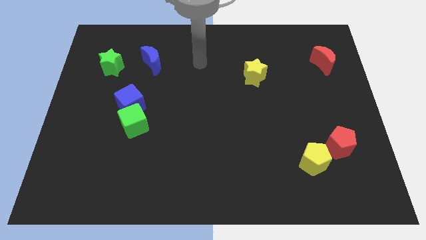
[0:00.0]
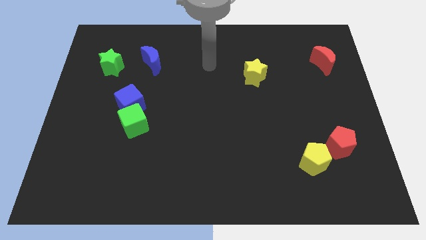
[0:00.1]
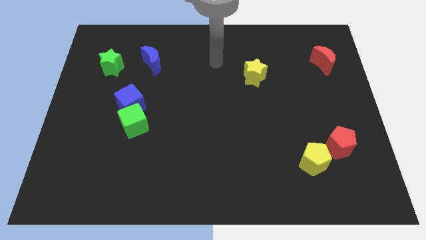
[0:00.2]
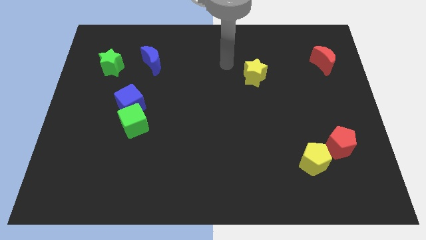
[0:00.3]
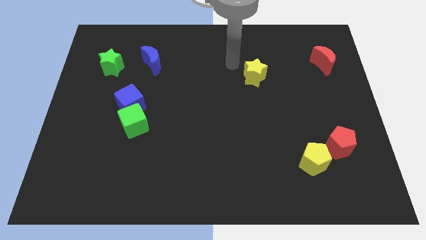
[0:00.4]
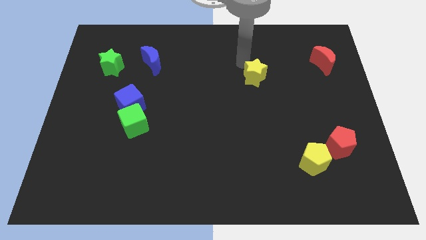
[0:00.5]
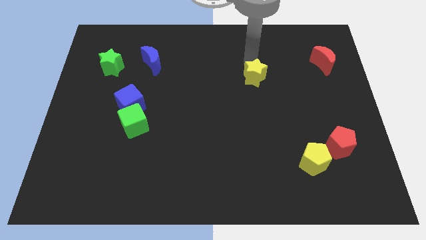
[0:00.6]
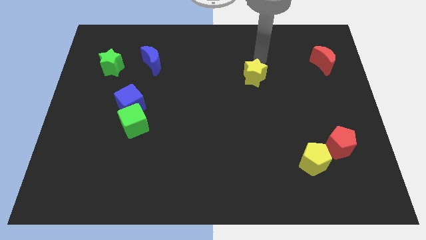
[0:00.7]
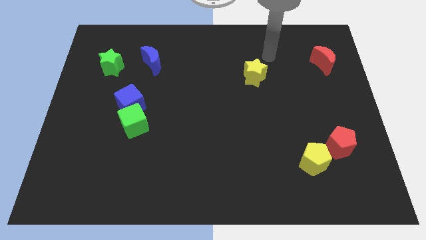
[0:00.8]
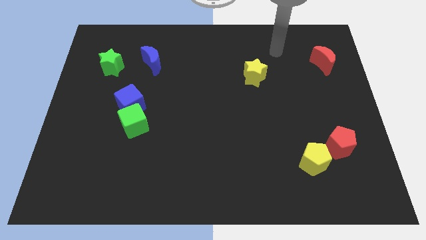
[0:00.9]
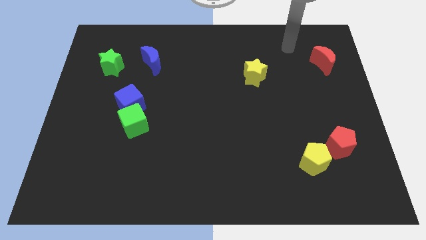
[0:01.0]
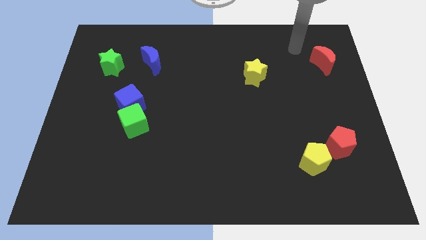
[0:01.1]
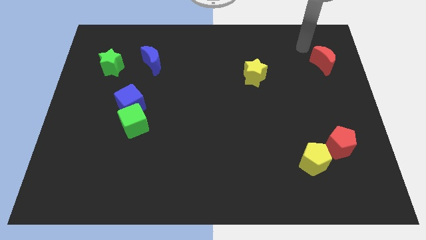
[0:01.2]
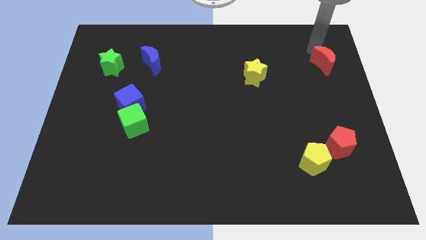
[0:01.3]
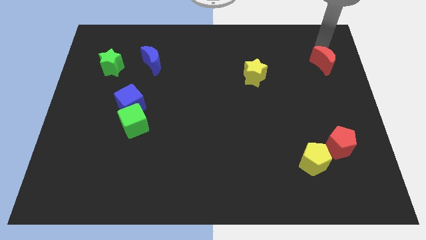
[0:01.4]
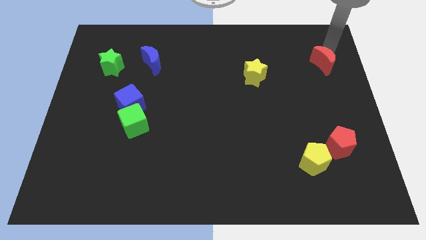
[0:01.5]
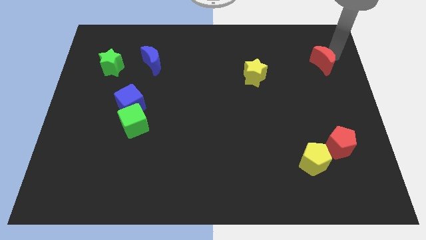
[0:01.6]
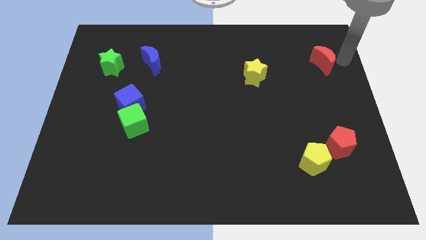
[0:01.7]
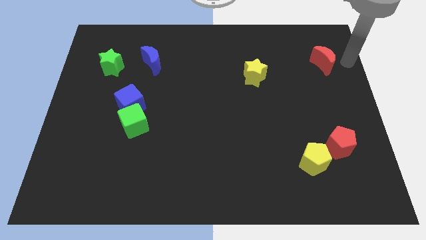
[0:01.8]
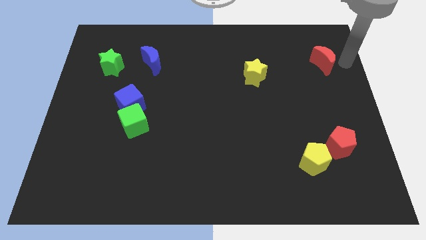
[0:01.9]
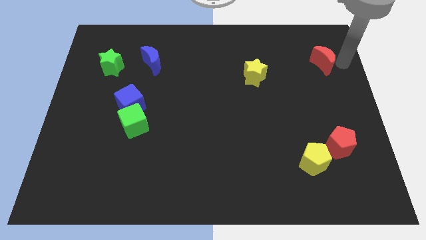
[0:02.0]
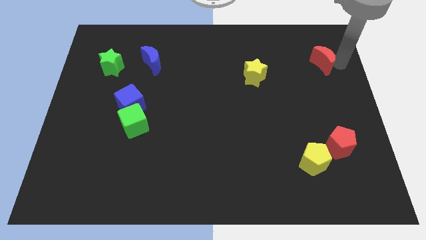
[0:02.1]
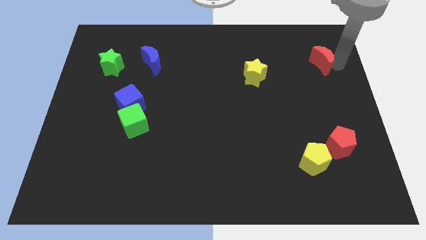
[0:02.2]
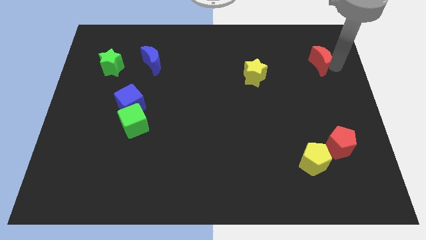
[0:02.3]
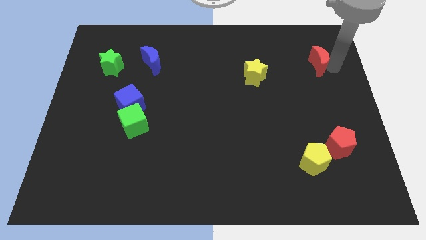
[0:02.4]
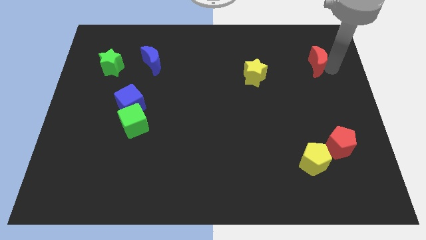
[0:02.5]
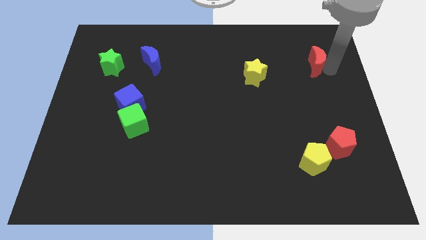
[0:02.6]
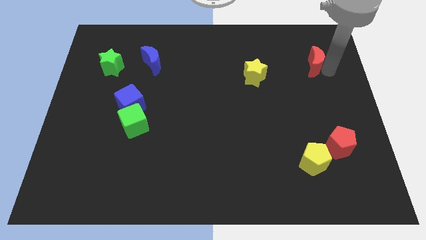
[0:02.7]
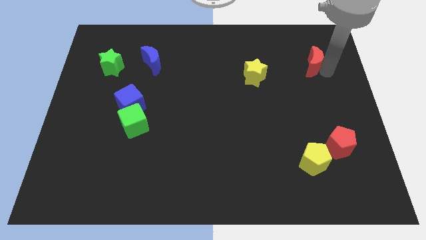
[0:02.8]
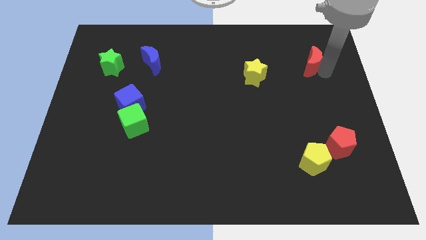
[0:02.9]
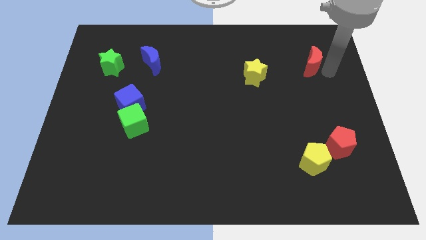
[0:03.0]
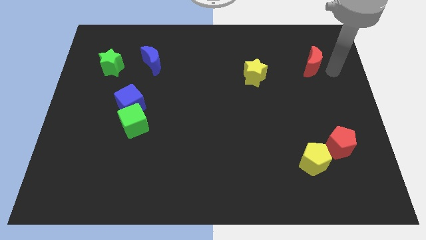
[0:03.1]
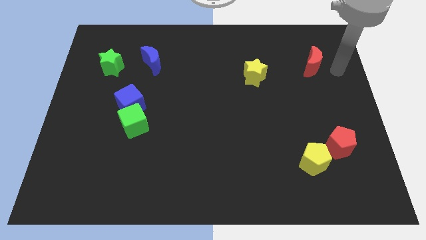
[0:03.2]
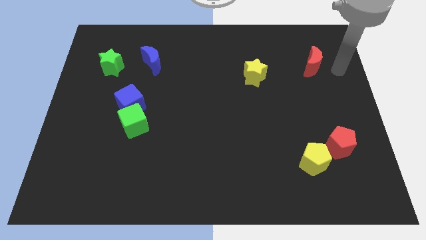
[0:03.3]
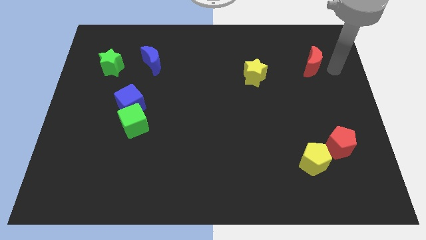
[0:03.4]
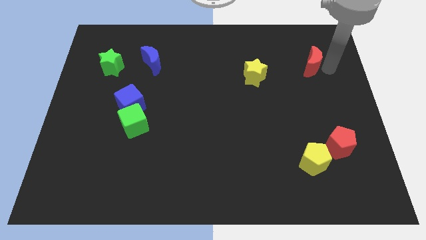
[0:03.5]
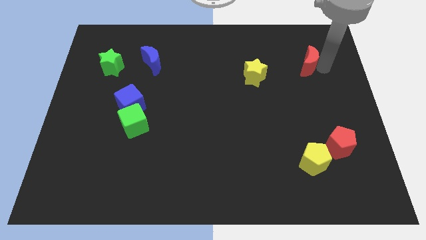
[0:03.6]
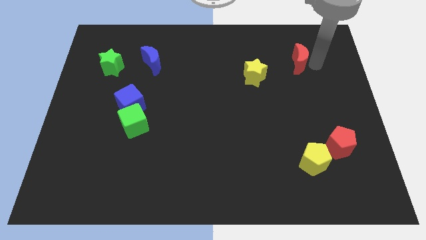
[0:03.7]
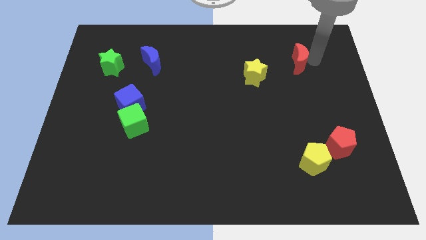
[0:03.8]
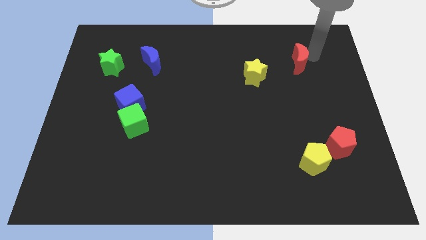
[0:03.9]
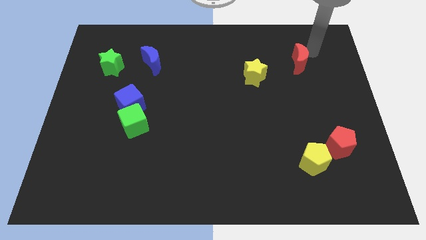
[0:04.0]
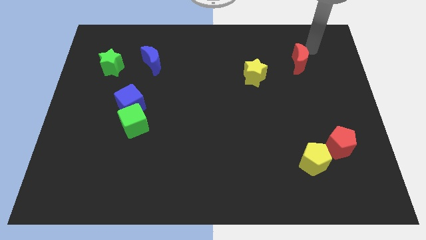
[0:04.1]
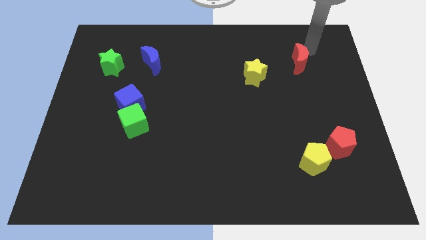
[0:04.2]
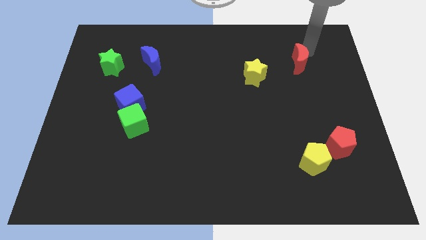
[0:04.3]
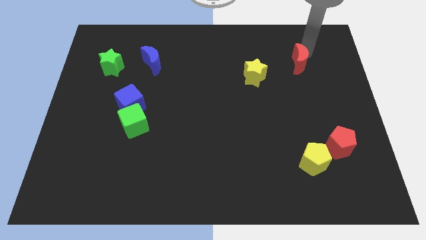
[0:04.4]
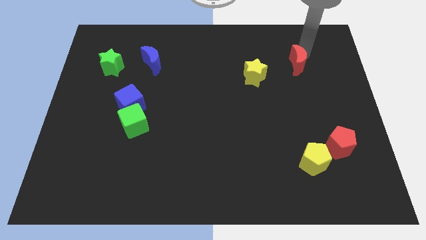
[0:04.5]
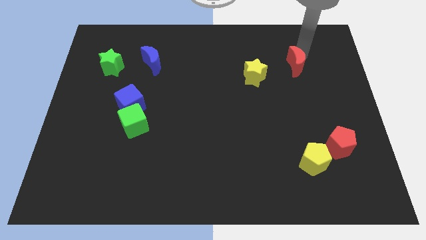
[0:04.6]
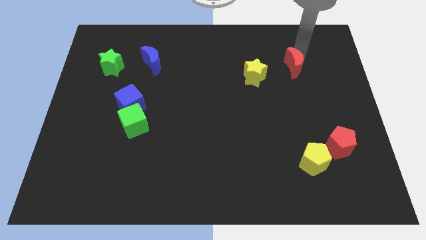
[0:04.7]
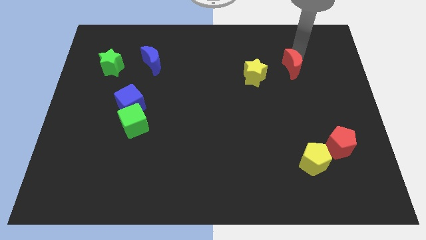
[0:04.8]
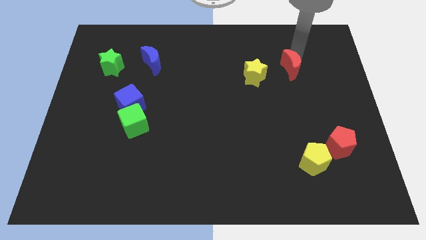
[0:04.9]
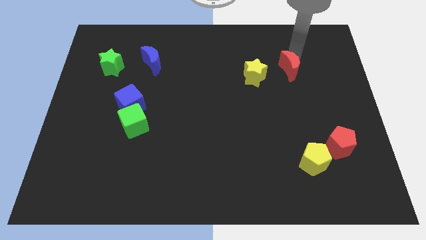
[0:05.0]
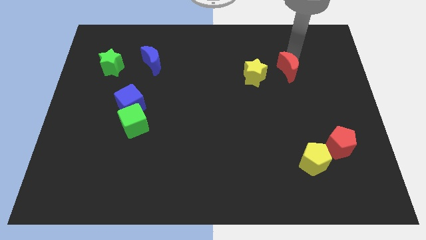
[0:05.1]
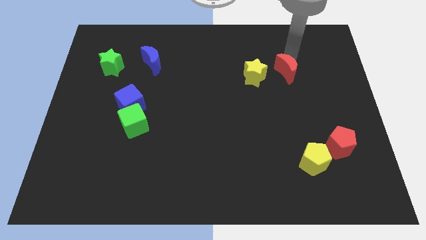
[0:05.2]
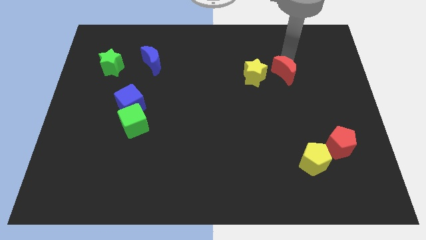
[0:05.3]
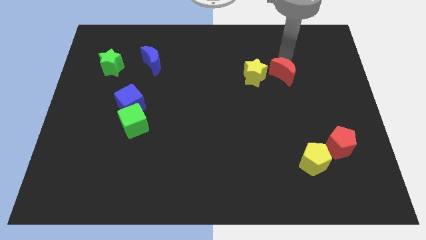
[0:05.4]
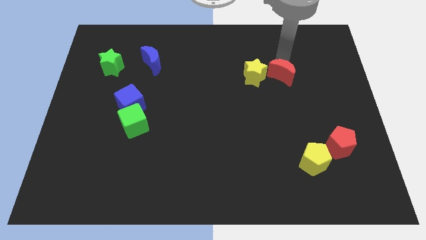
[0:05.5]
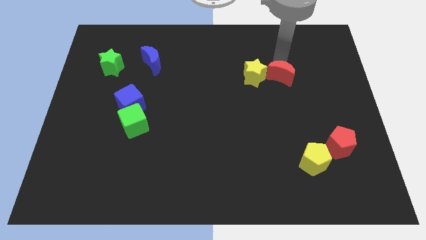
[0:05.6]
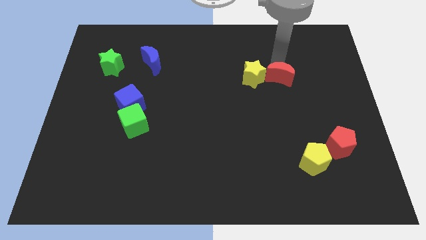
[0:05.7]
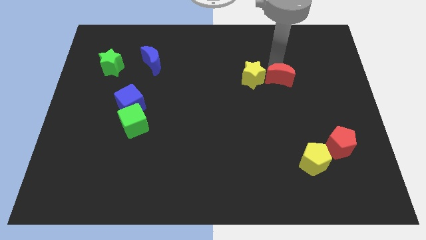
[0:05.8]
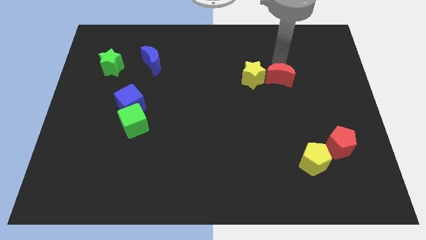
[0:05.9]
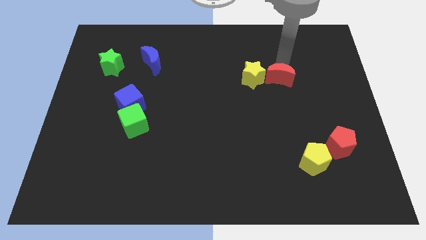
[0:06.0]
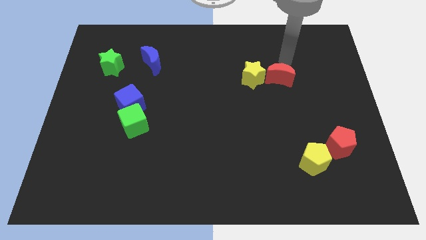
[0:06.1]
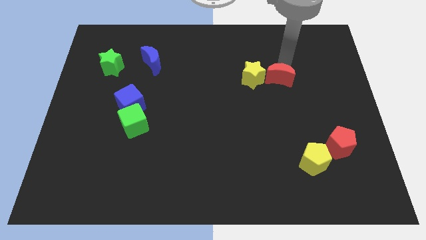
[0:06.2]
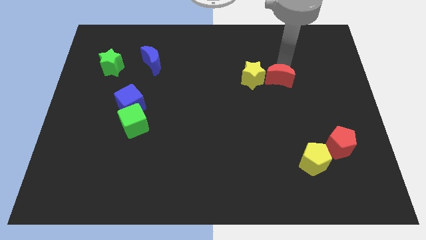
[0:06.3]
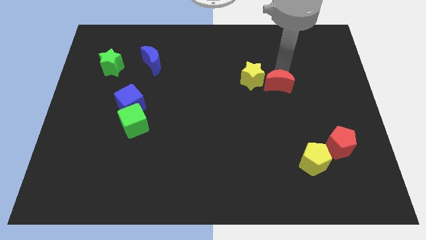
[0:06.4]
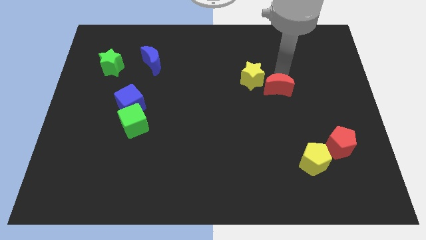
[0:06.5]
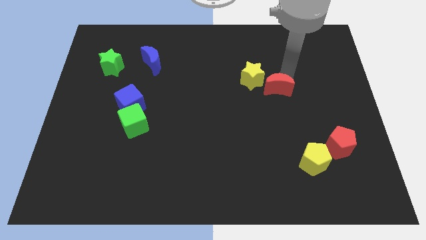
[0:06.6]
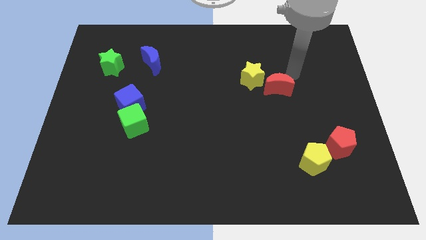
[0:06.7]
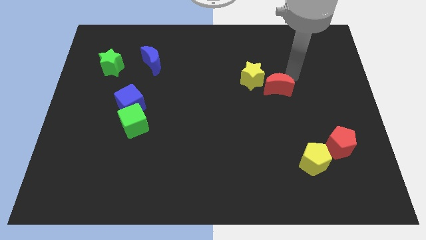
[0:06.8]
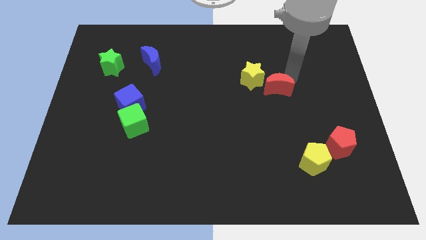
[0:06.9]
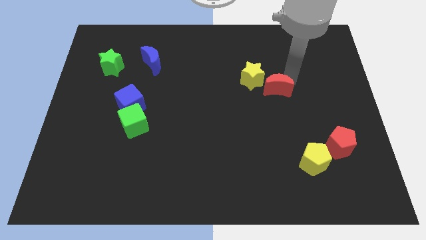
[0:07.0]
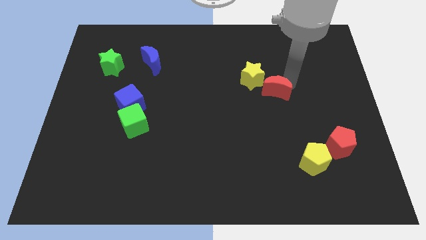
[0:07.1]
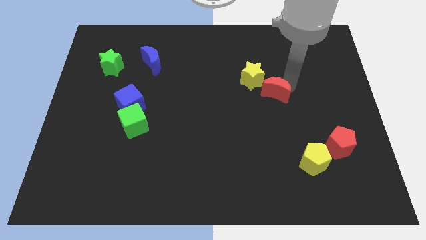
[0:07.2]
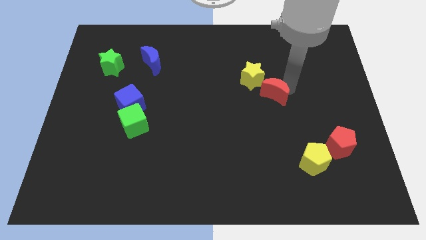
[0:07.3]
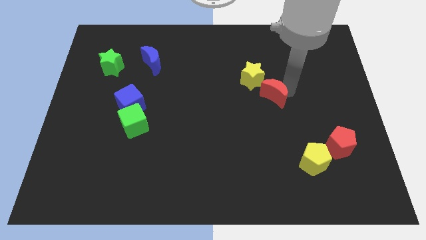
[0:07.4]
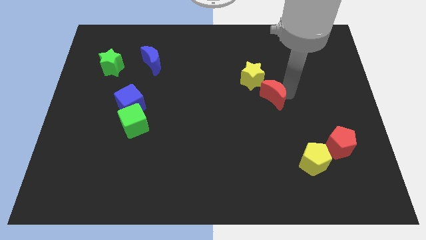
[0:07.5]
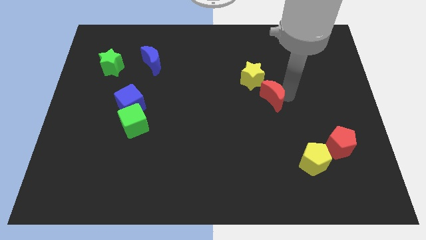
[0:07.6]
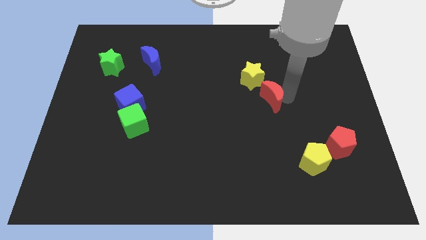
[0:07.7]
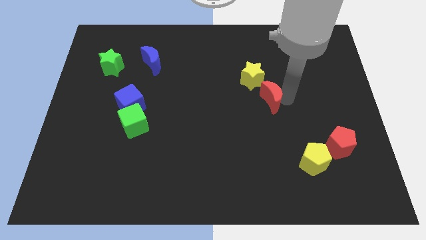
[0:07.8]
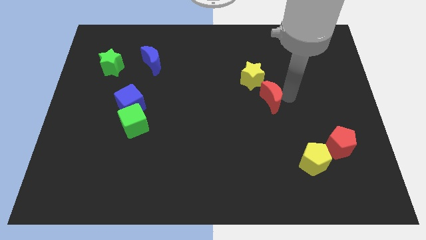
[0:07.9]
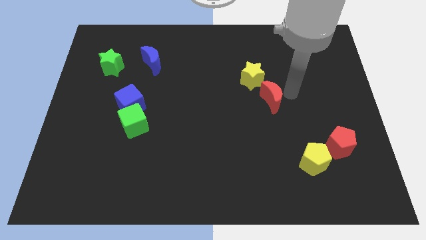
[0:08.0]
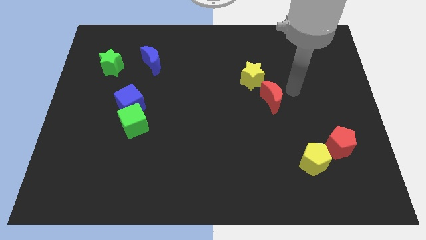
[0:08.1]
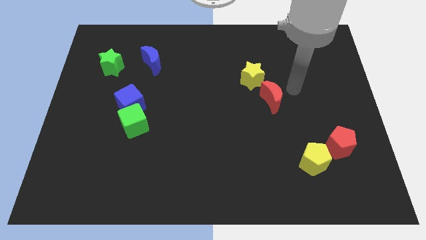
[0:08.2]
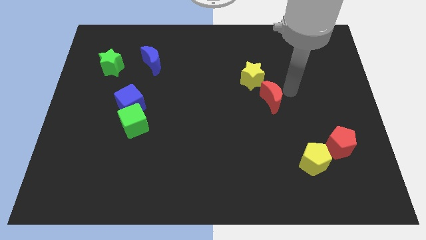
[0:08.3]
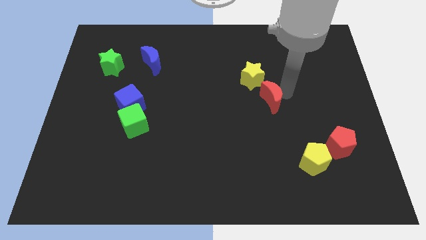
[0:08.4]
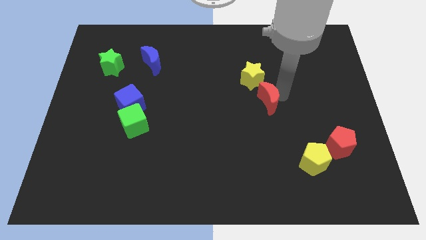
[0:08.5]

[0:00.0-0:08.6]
move the red moon downwards and to the left
